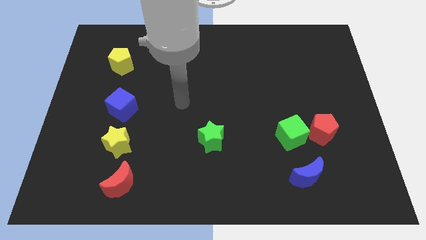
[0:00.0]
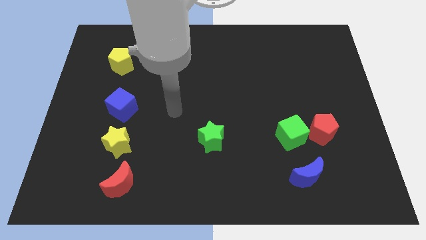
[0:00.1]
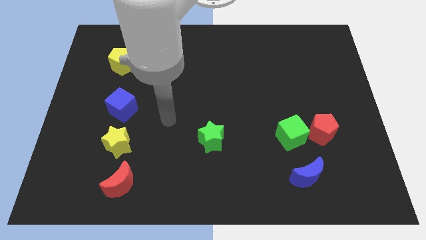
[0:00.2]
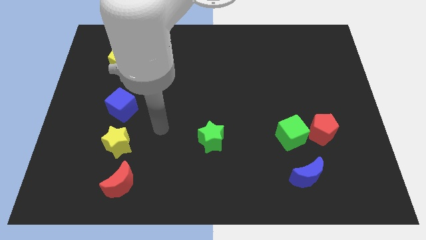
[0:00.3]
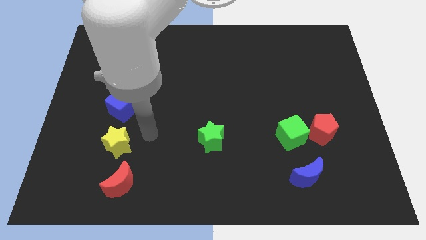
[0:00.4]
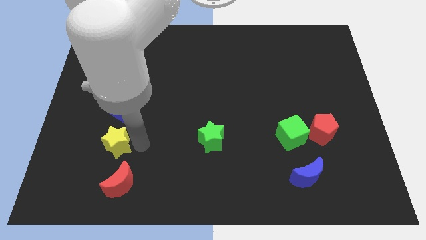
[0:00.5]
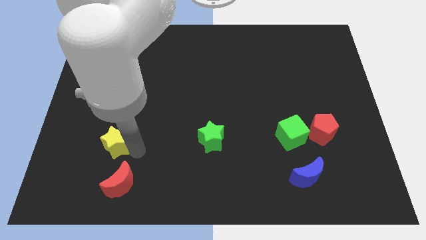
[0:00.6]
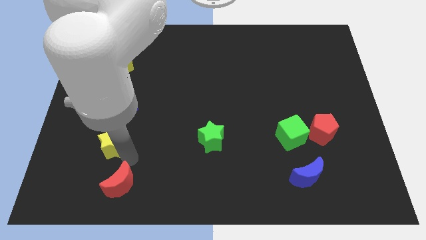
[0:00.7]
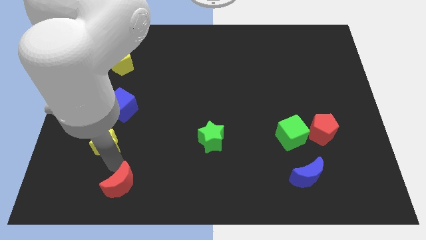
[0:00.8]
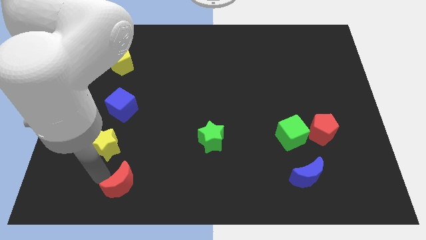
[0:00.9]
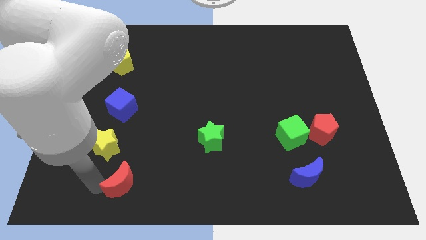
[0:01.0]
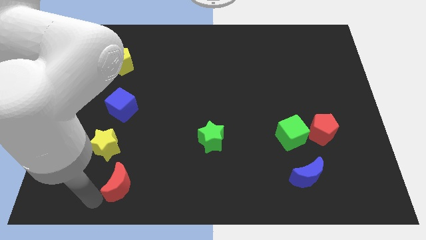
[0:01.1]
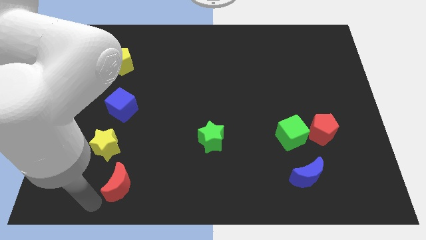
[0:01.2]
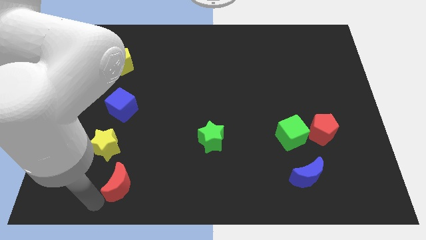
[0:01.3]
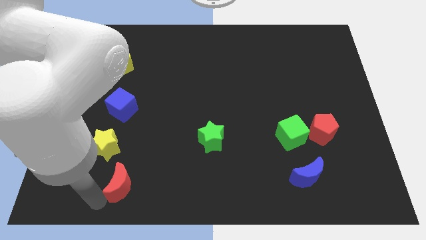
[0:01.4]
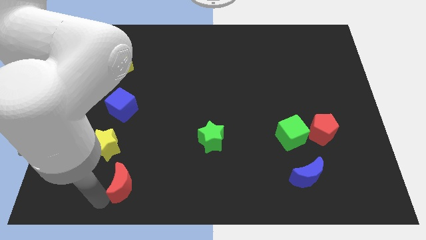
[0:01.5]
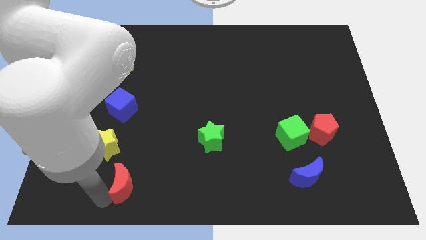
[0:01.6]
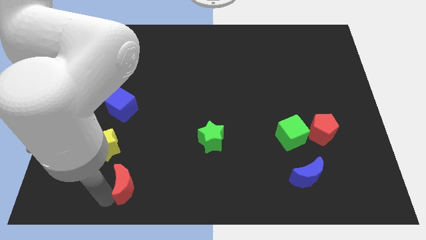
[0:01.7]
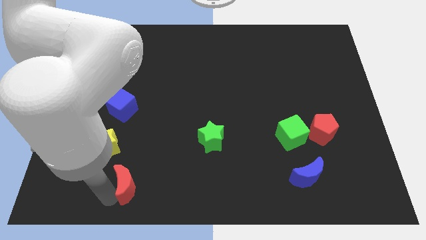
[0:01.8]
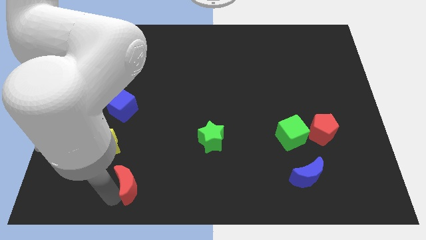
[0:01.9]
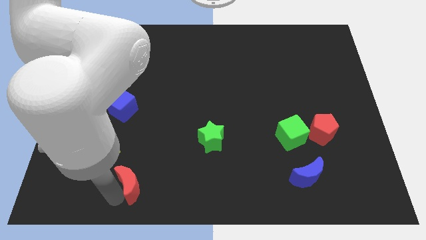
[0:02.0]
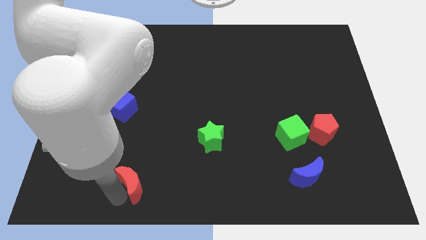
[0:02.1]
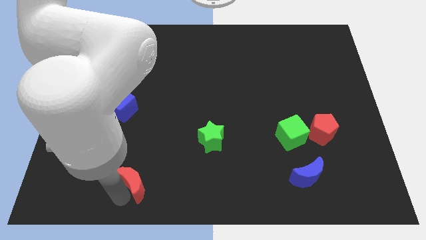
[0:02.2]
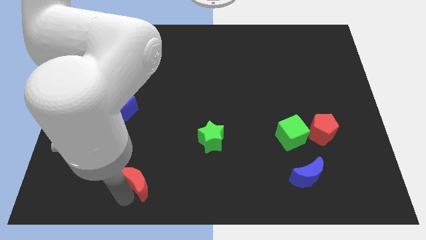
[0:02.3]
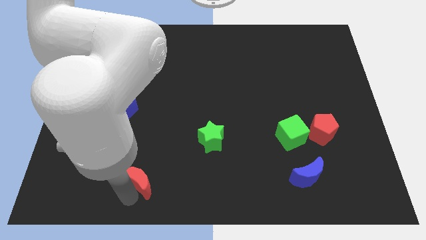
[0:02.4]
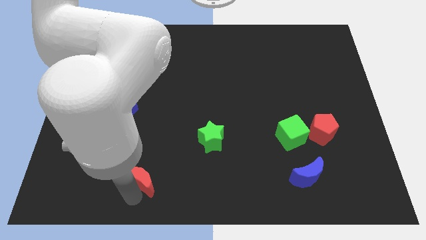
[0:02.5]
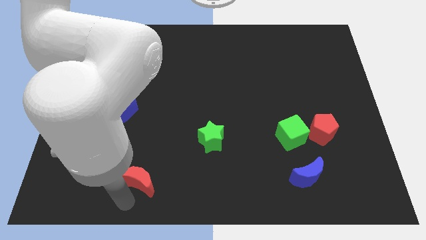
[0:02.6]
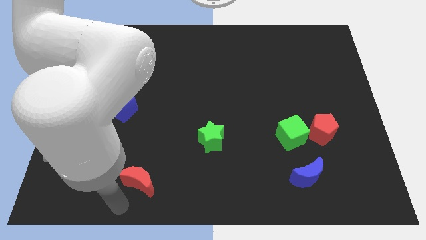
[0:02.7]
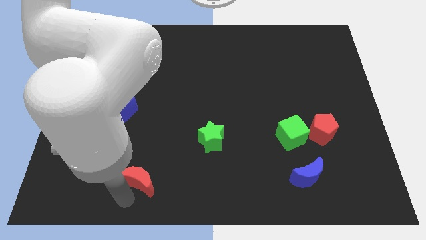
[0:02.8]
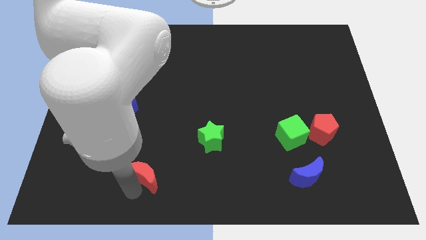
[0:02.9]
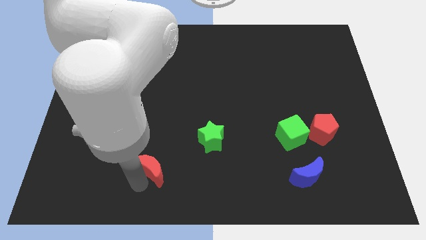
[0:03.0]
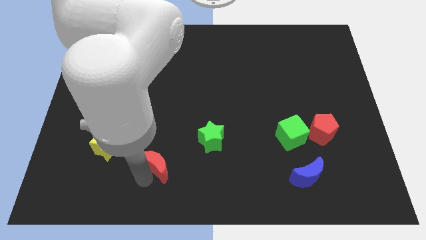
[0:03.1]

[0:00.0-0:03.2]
push the red moon upwards and right diagonally a bit

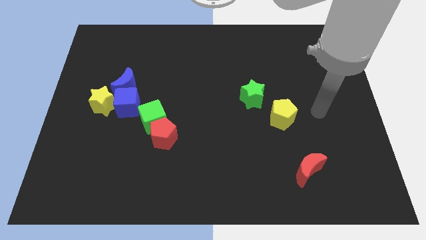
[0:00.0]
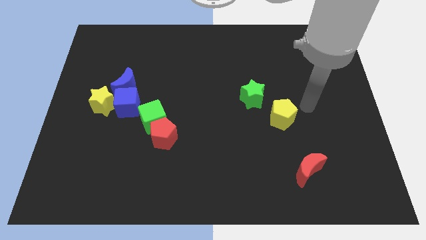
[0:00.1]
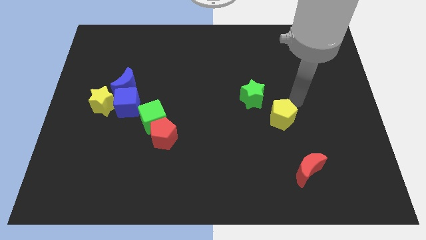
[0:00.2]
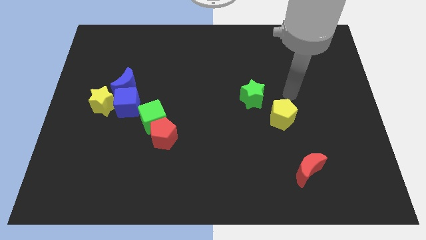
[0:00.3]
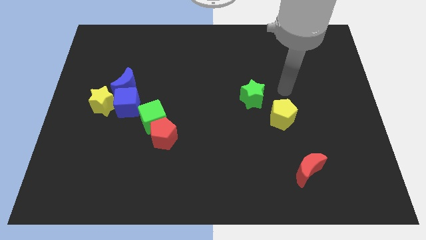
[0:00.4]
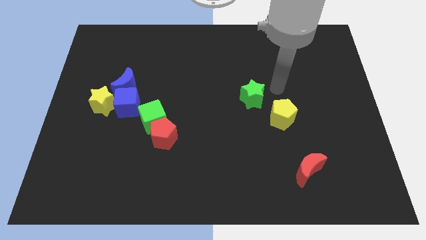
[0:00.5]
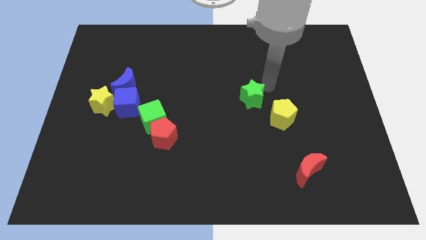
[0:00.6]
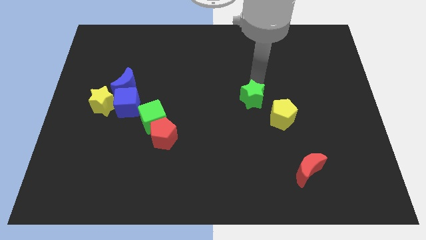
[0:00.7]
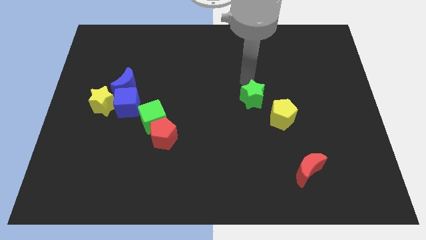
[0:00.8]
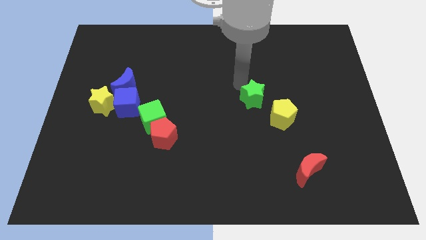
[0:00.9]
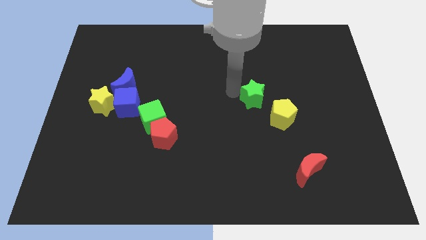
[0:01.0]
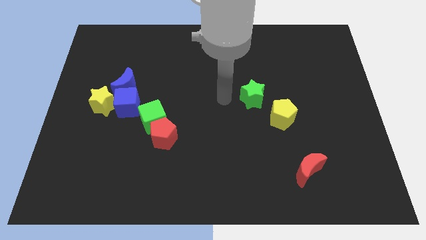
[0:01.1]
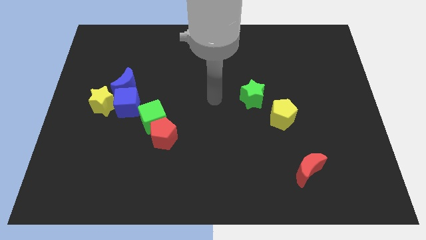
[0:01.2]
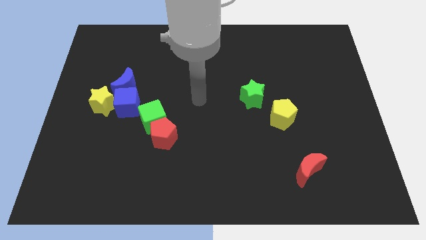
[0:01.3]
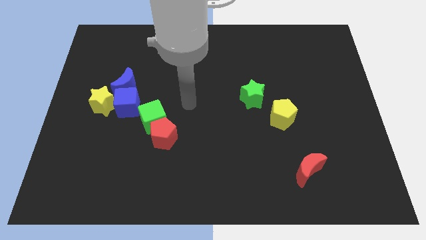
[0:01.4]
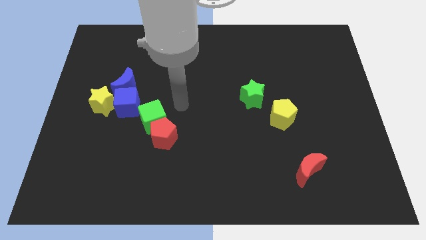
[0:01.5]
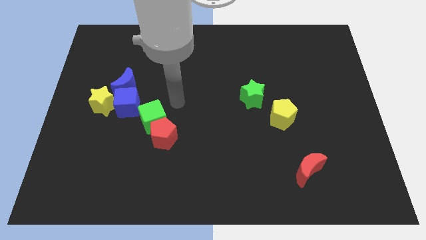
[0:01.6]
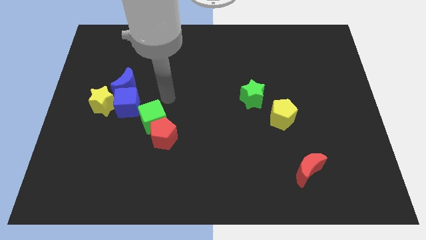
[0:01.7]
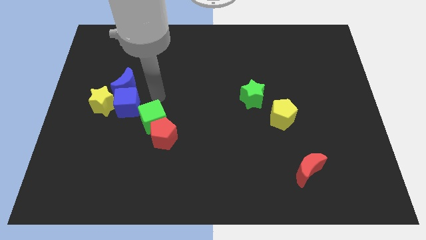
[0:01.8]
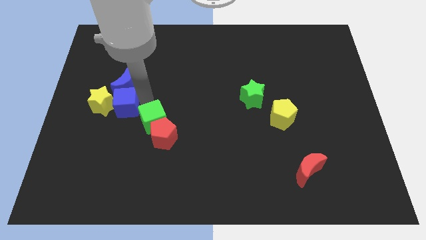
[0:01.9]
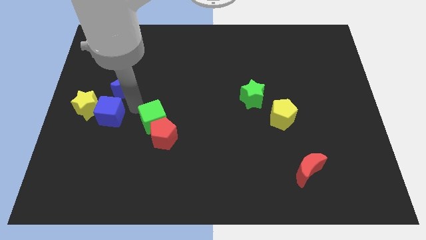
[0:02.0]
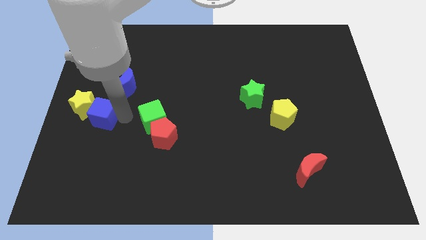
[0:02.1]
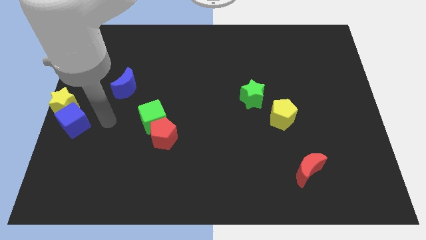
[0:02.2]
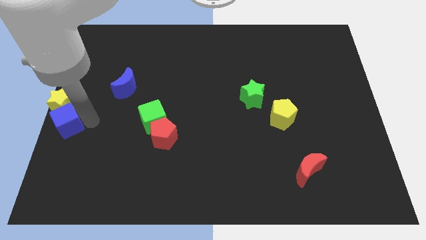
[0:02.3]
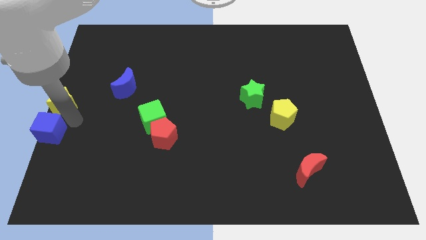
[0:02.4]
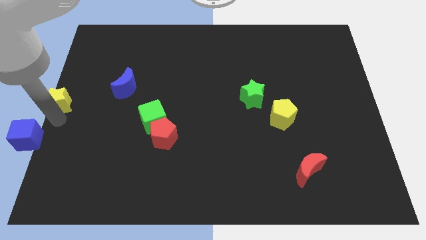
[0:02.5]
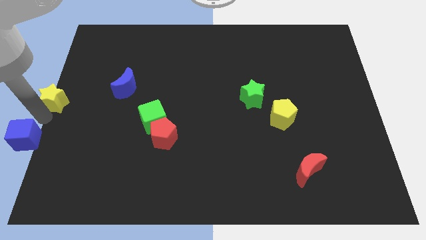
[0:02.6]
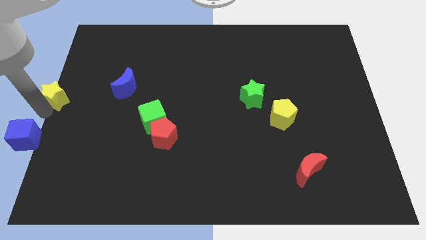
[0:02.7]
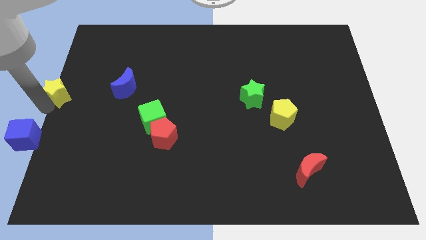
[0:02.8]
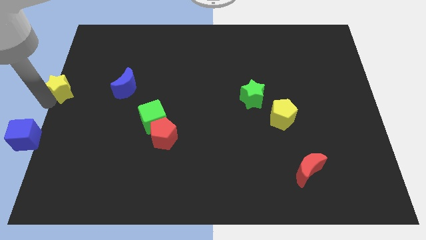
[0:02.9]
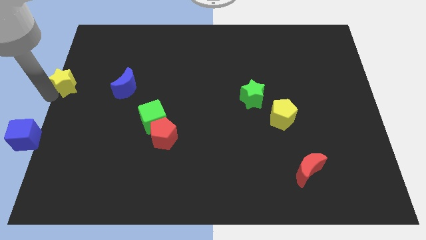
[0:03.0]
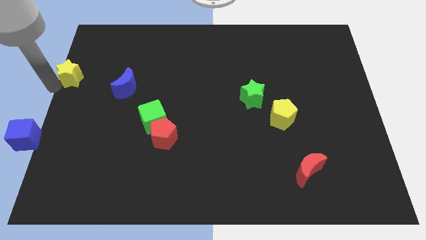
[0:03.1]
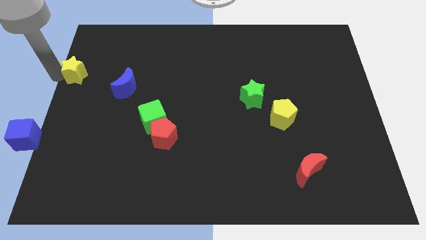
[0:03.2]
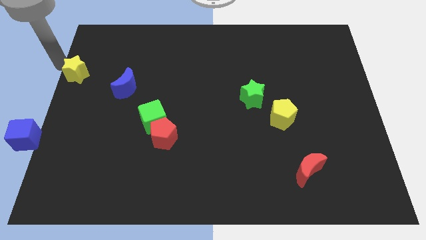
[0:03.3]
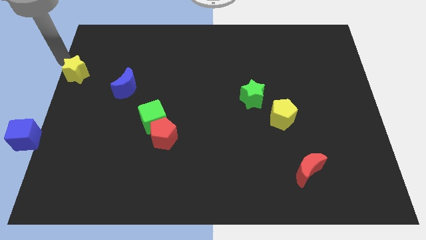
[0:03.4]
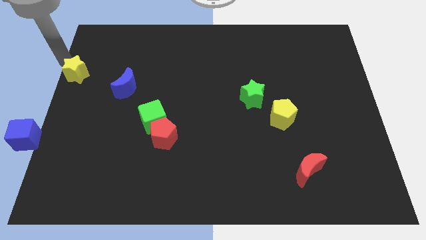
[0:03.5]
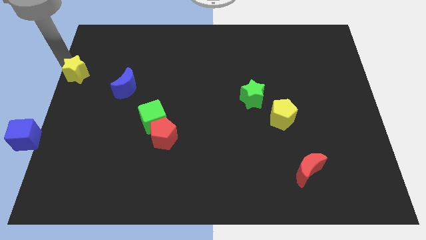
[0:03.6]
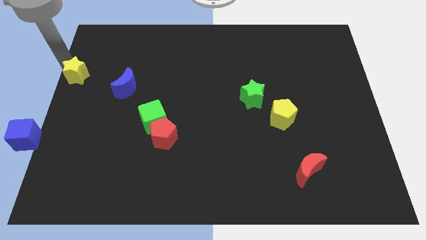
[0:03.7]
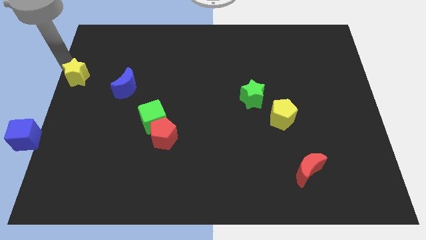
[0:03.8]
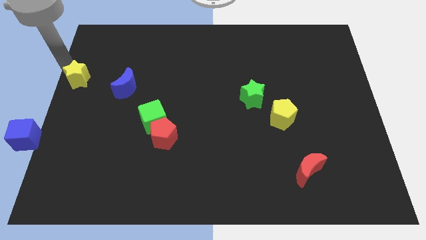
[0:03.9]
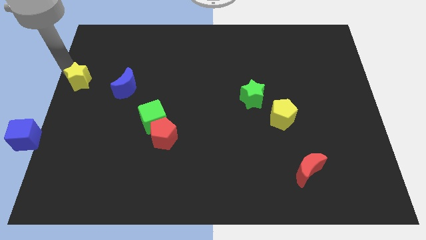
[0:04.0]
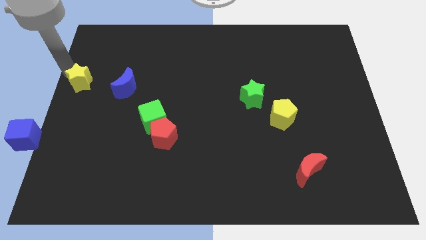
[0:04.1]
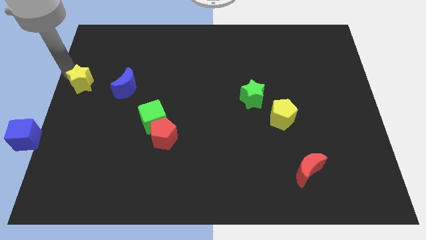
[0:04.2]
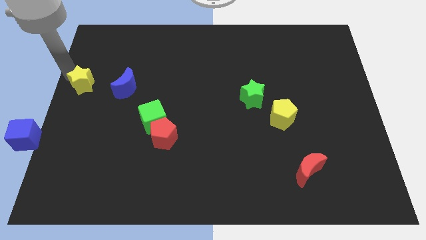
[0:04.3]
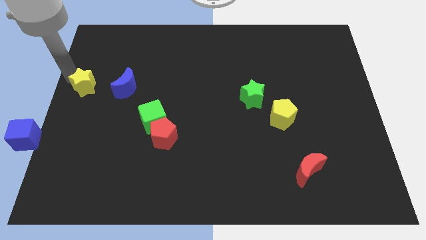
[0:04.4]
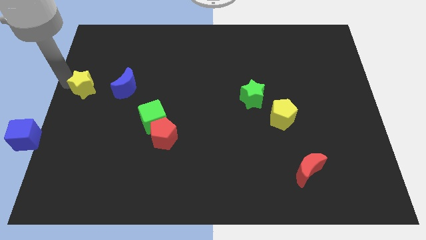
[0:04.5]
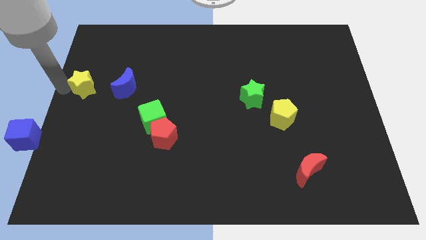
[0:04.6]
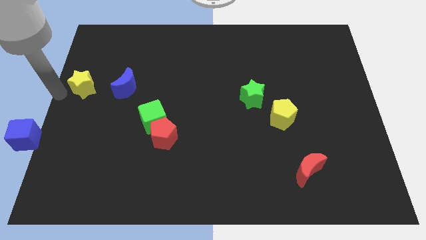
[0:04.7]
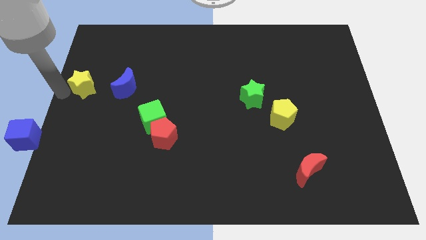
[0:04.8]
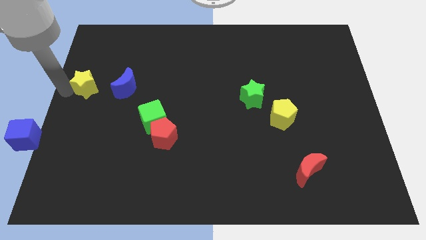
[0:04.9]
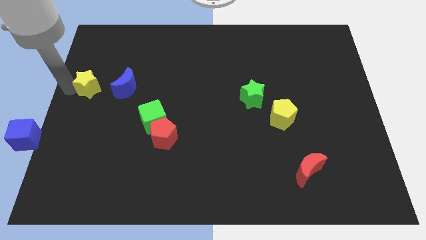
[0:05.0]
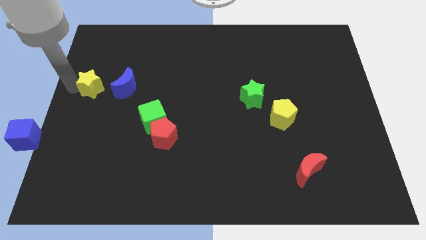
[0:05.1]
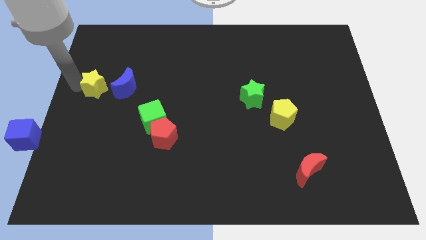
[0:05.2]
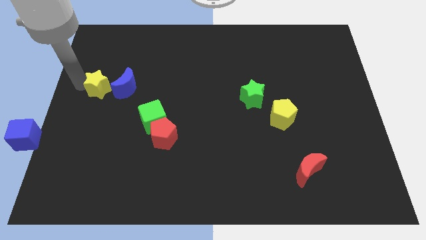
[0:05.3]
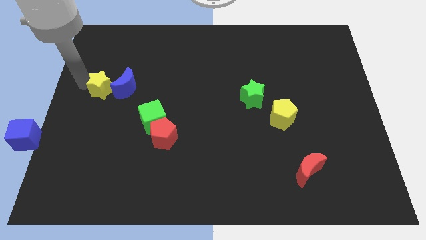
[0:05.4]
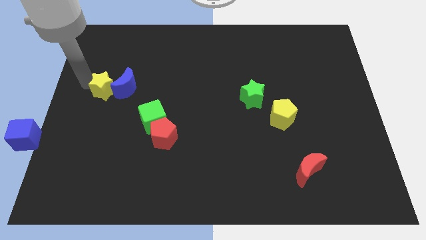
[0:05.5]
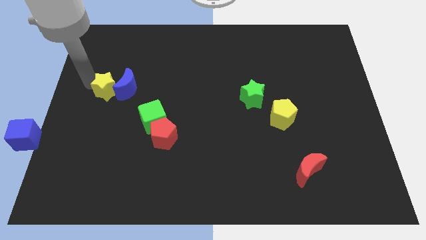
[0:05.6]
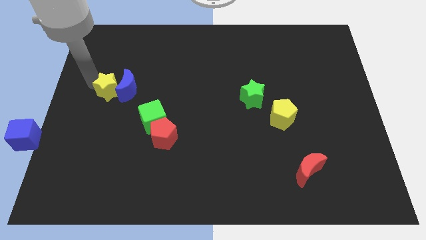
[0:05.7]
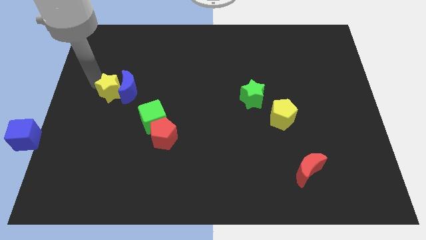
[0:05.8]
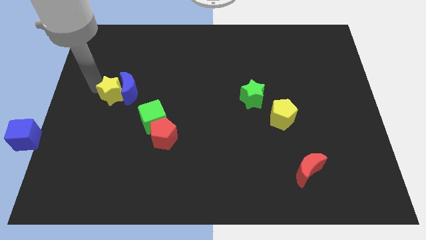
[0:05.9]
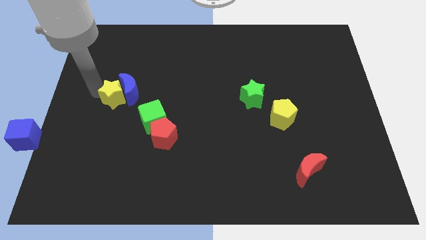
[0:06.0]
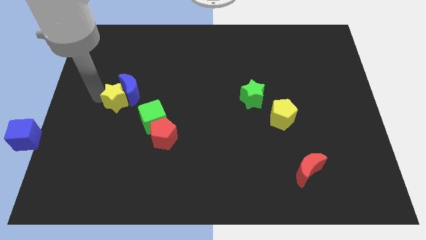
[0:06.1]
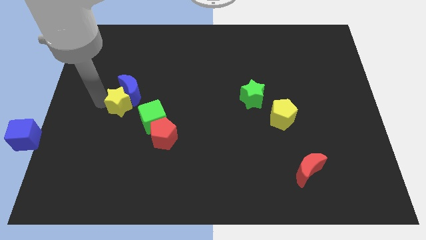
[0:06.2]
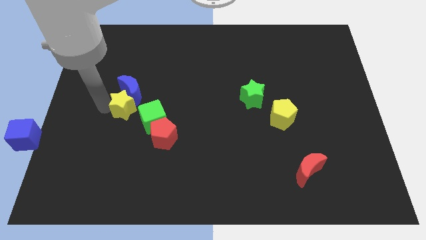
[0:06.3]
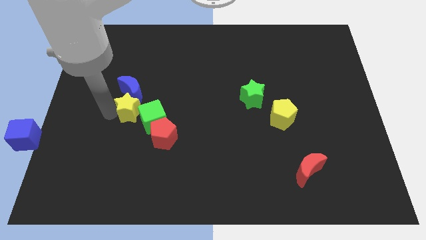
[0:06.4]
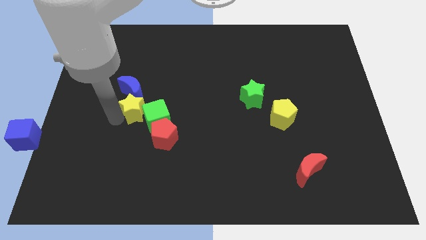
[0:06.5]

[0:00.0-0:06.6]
move the yellow star to the right slightly
